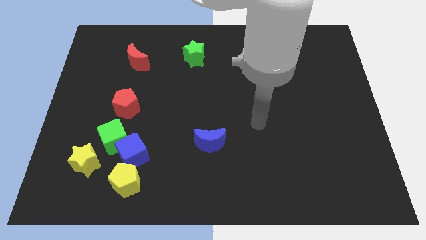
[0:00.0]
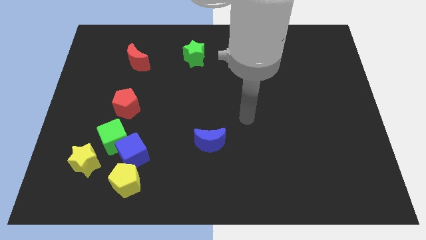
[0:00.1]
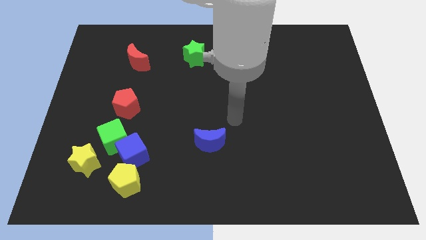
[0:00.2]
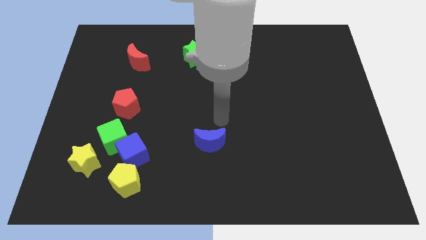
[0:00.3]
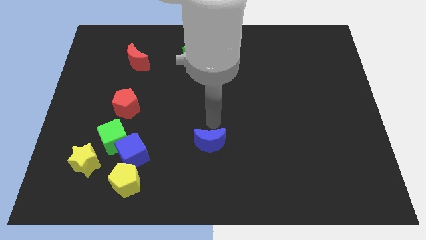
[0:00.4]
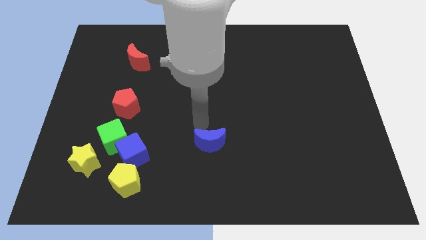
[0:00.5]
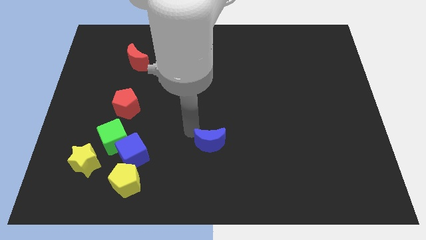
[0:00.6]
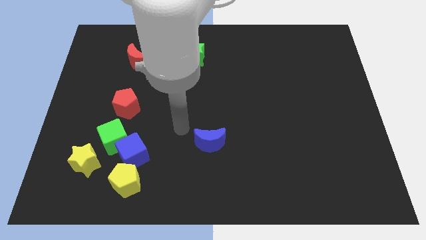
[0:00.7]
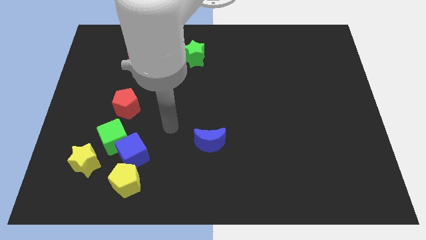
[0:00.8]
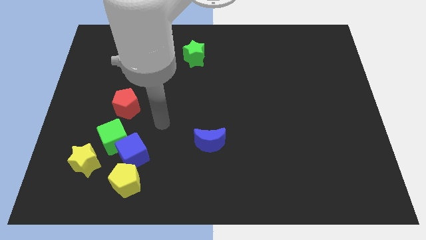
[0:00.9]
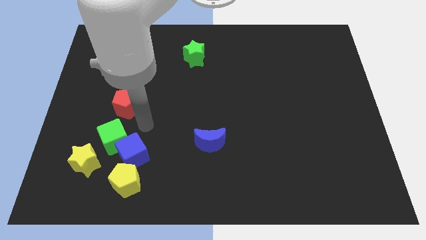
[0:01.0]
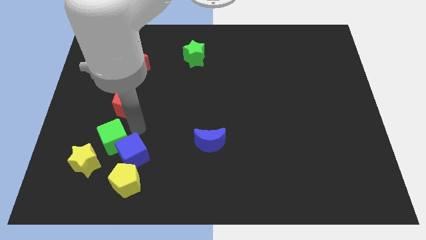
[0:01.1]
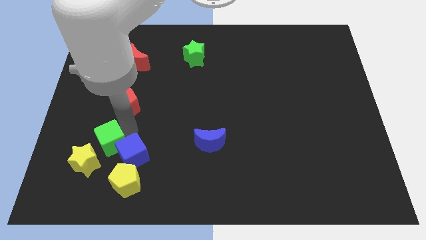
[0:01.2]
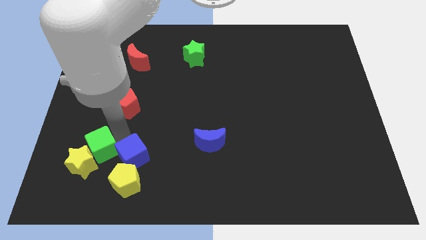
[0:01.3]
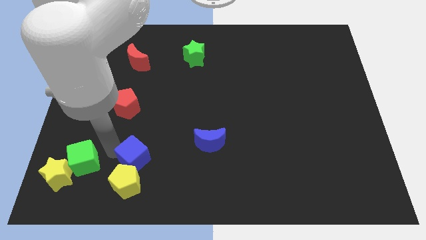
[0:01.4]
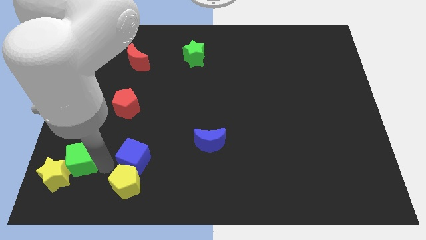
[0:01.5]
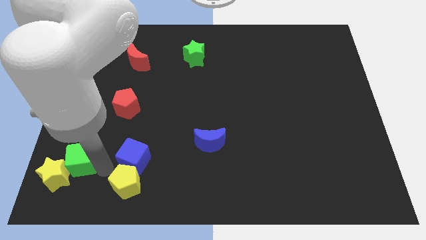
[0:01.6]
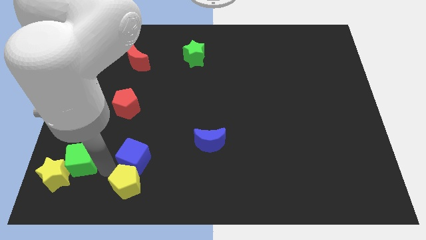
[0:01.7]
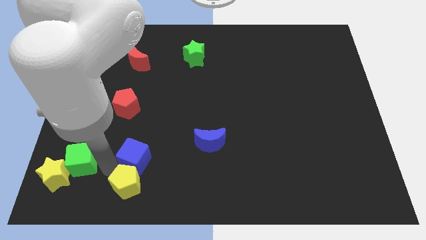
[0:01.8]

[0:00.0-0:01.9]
separate the blue cube from the group

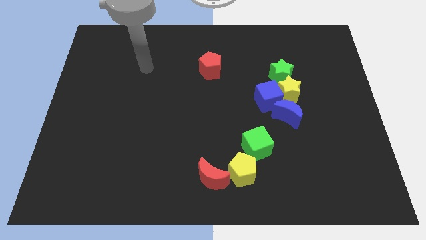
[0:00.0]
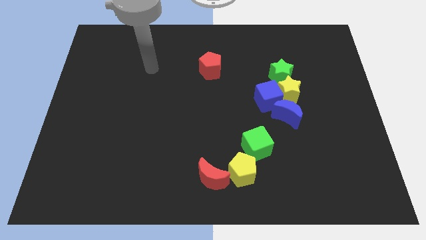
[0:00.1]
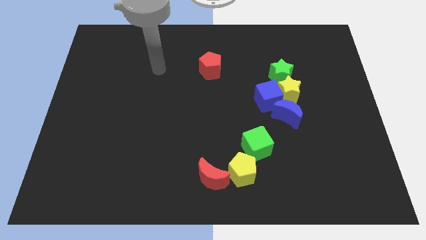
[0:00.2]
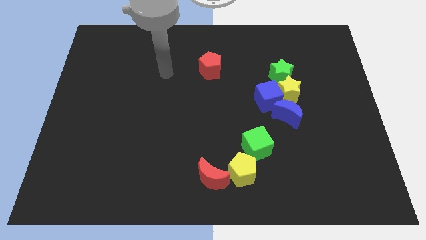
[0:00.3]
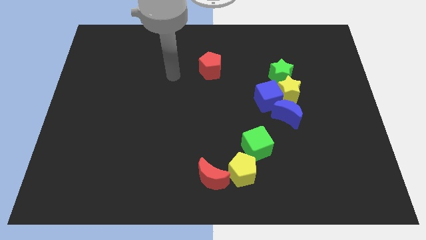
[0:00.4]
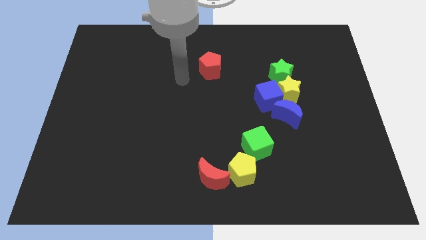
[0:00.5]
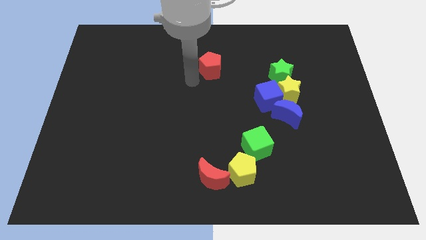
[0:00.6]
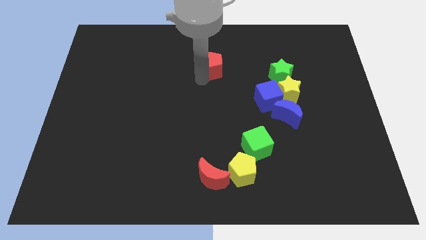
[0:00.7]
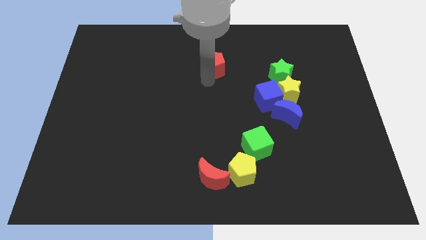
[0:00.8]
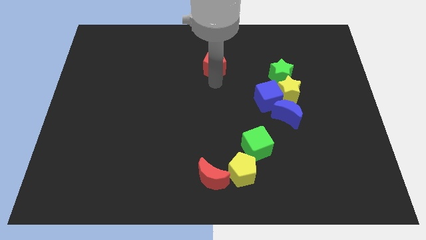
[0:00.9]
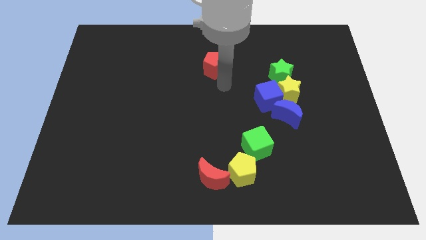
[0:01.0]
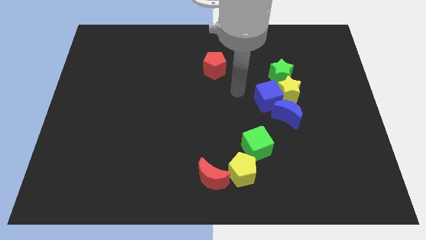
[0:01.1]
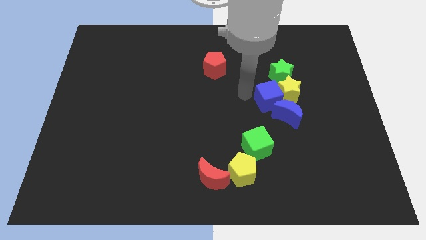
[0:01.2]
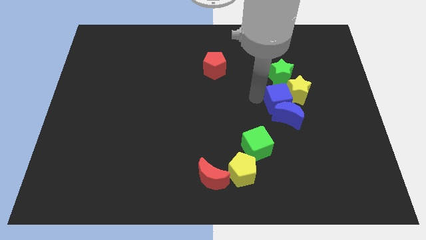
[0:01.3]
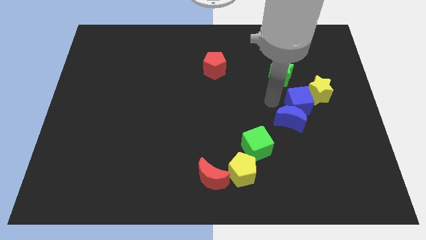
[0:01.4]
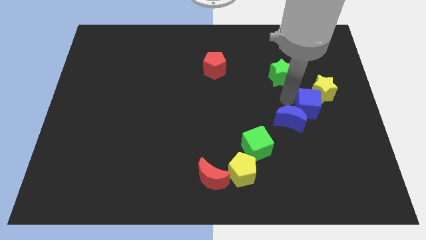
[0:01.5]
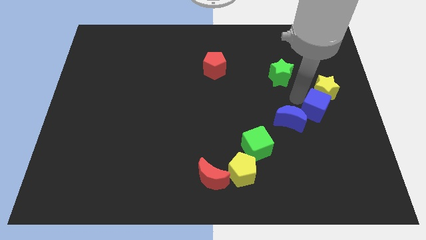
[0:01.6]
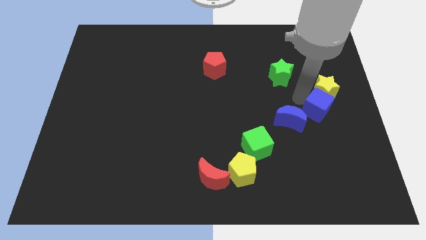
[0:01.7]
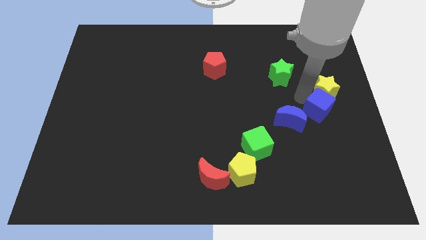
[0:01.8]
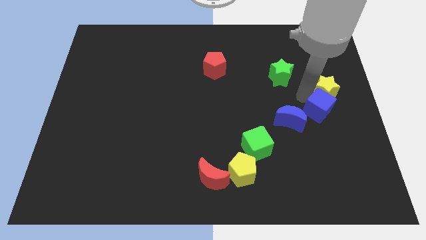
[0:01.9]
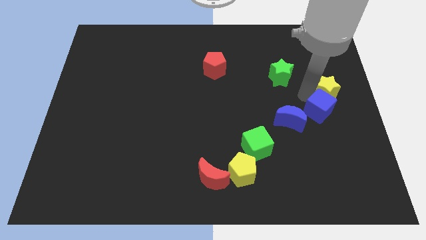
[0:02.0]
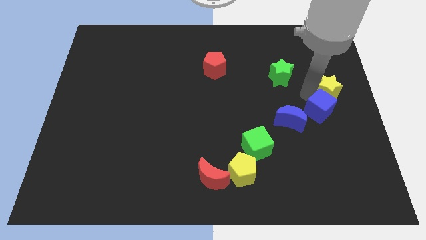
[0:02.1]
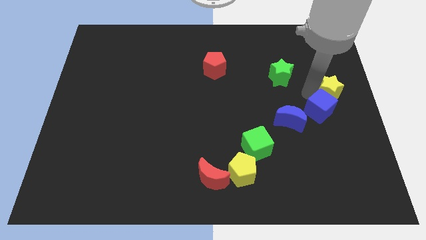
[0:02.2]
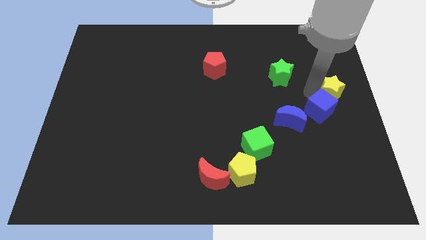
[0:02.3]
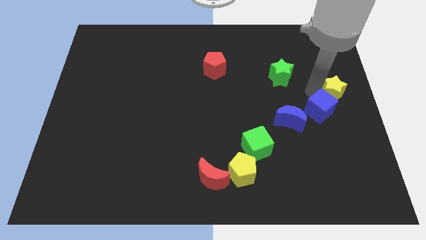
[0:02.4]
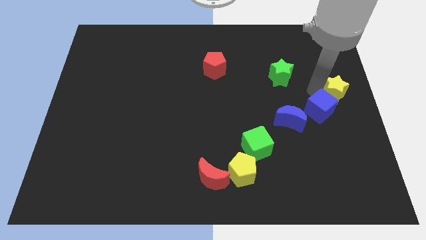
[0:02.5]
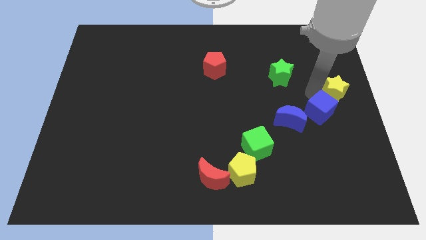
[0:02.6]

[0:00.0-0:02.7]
separate the yellow star from the group of blocks

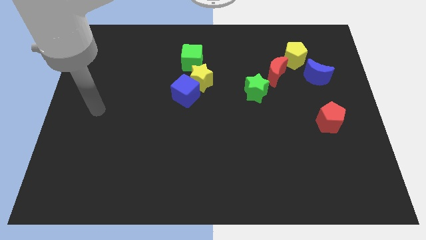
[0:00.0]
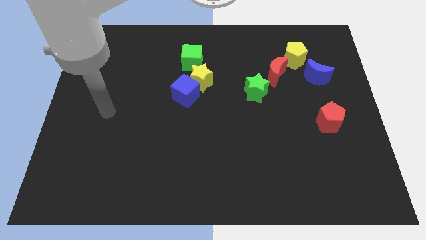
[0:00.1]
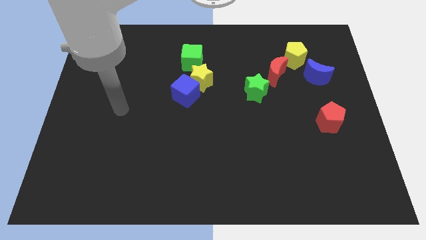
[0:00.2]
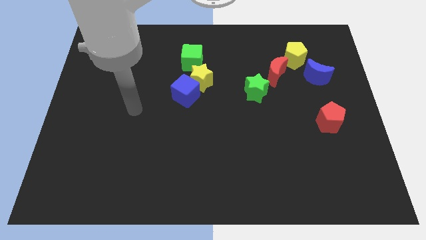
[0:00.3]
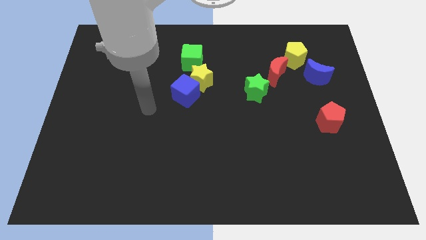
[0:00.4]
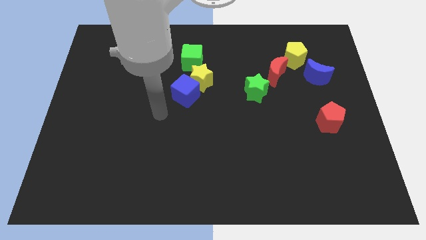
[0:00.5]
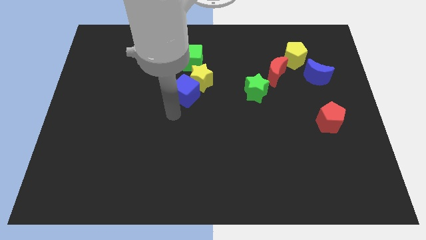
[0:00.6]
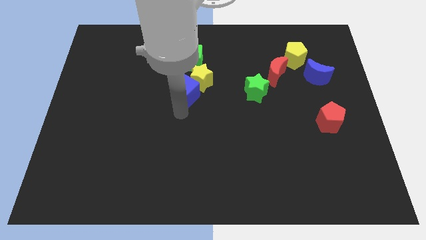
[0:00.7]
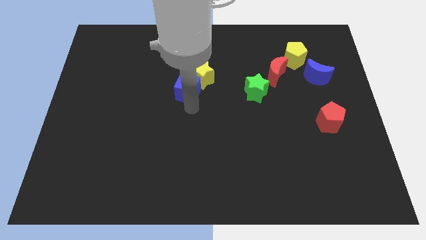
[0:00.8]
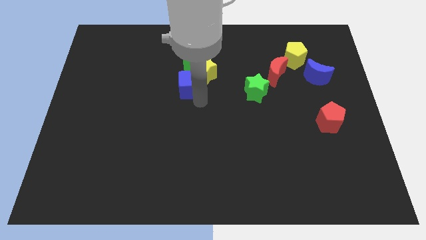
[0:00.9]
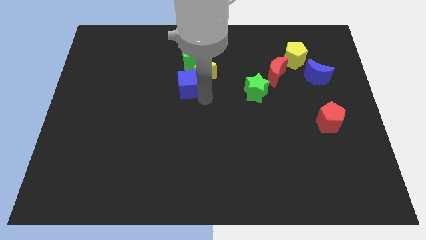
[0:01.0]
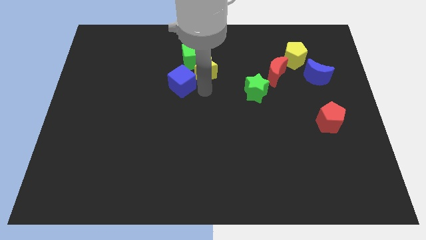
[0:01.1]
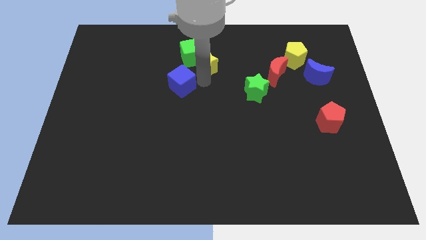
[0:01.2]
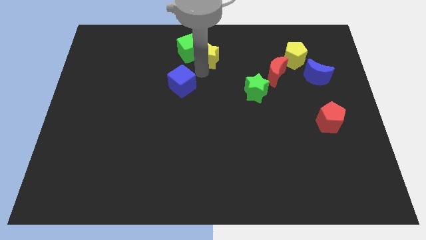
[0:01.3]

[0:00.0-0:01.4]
pull the blue cube apart from the yellow star

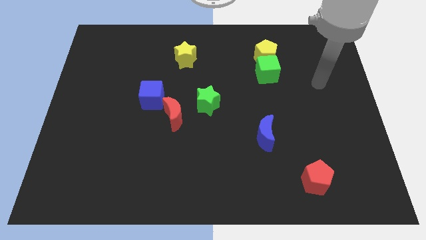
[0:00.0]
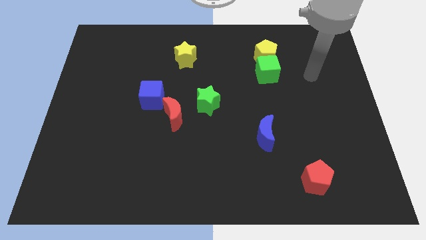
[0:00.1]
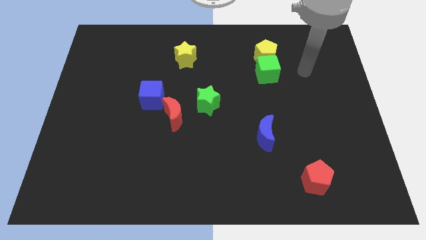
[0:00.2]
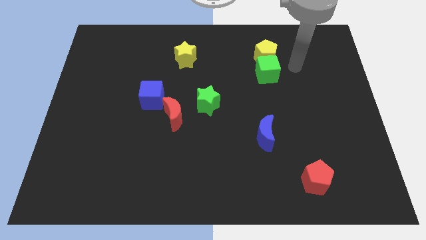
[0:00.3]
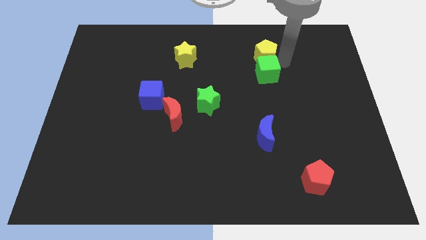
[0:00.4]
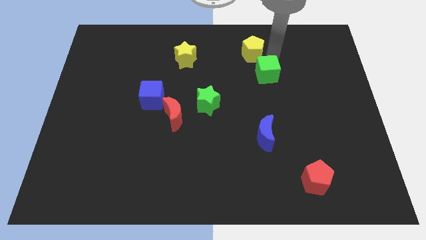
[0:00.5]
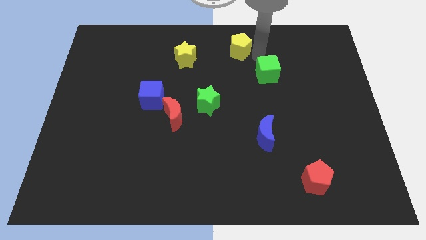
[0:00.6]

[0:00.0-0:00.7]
separate the green cube from the yellow pentagon

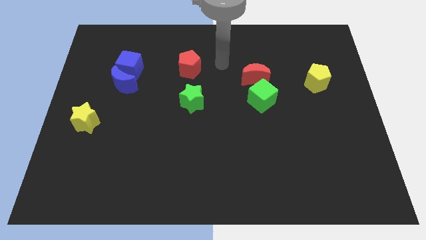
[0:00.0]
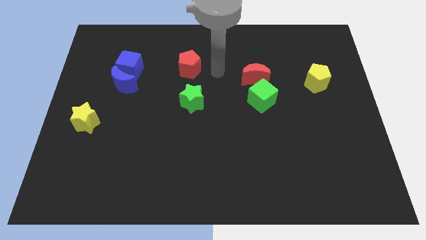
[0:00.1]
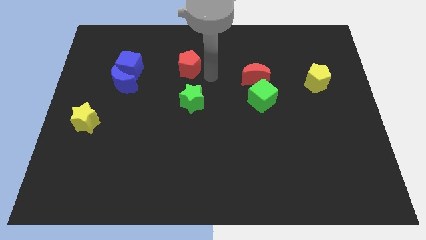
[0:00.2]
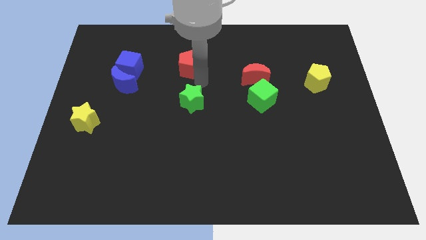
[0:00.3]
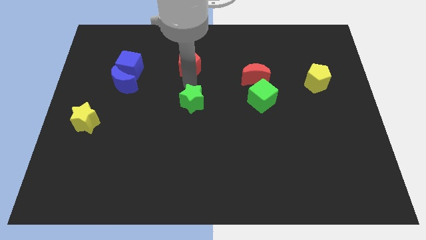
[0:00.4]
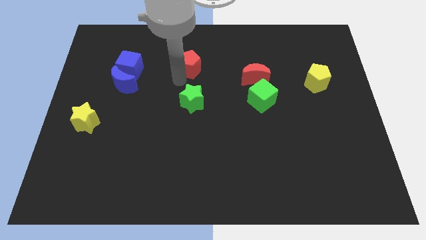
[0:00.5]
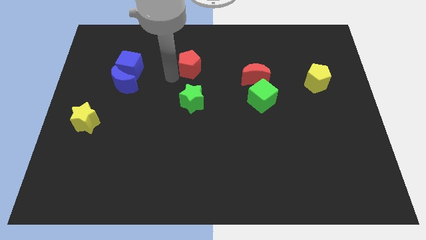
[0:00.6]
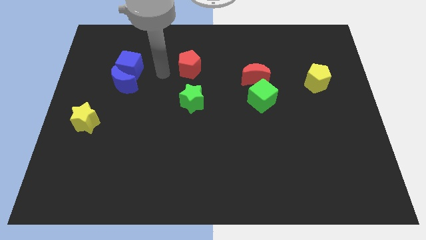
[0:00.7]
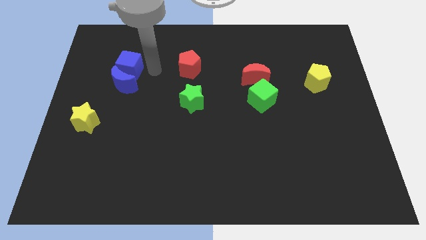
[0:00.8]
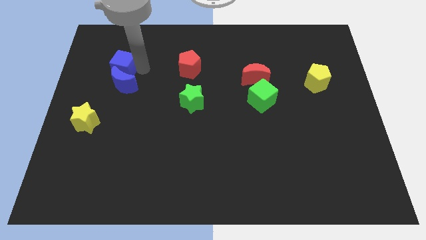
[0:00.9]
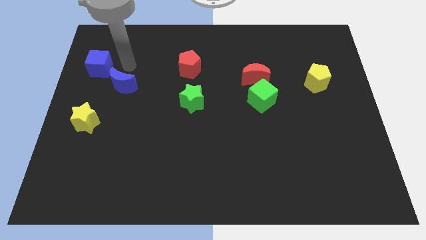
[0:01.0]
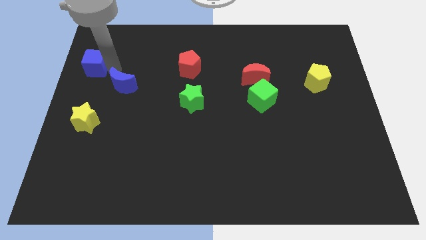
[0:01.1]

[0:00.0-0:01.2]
pull the blue moon apart from the blue cube

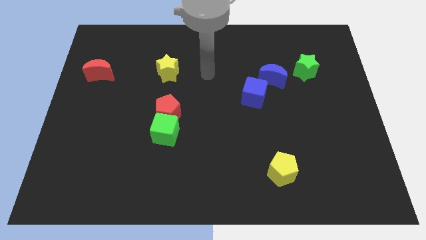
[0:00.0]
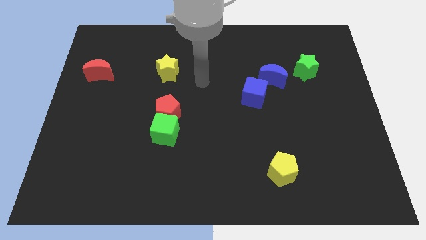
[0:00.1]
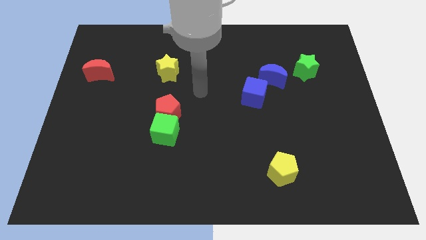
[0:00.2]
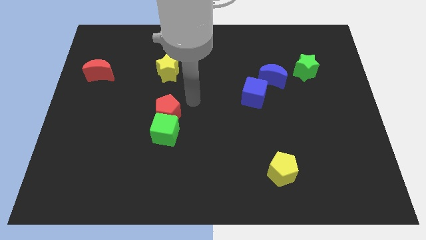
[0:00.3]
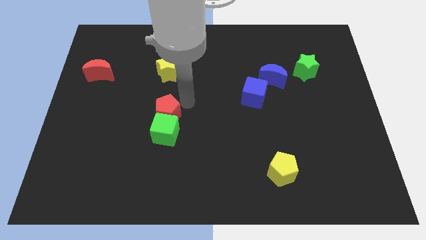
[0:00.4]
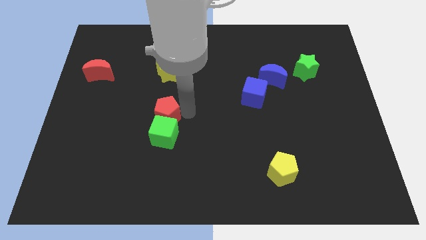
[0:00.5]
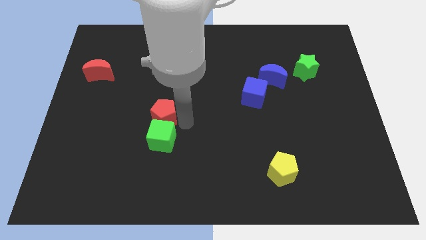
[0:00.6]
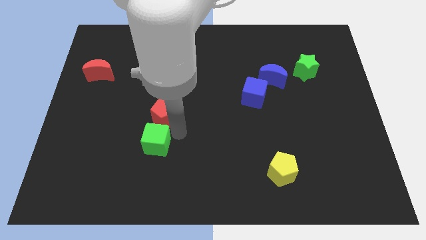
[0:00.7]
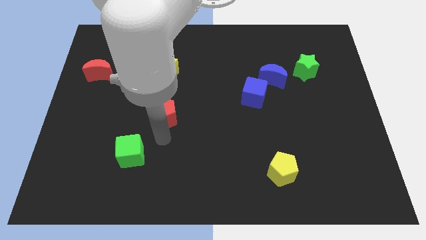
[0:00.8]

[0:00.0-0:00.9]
separate the red pentagon from the green cube

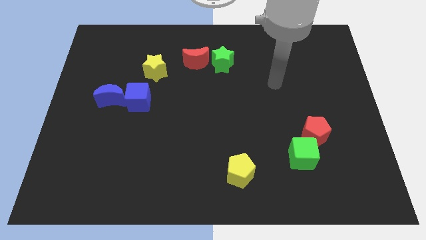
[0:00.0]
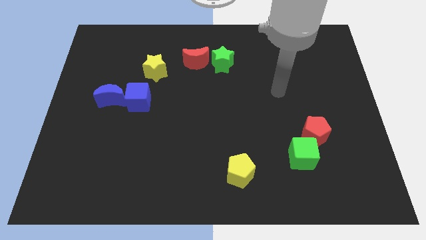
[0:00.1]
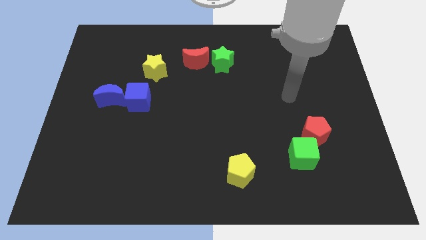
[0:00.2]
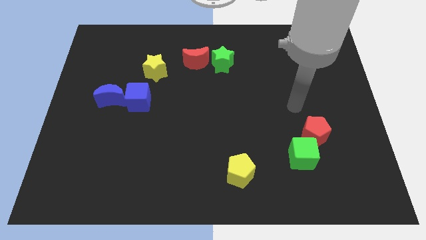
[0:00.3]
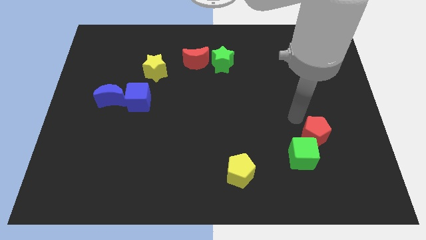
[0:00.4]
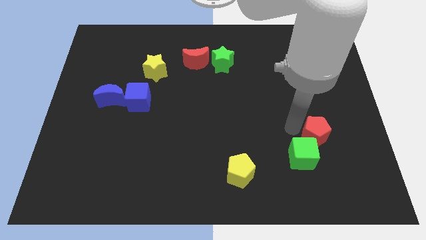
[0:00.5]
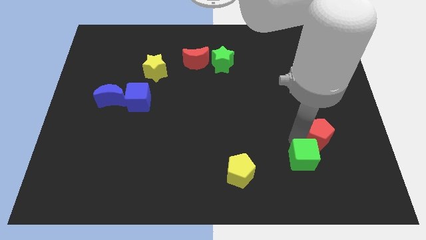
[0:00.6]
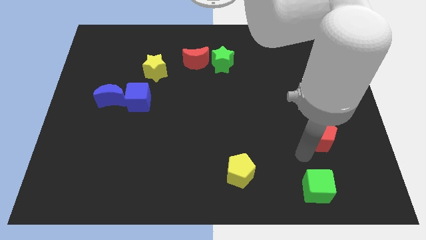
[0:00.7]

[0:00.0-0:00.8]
move the red pentagon away from the green cube
